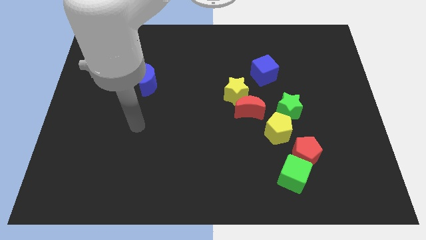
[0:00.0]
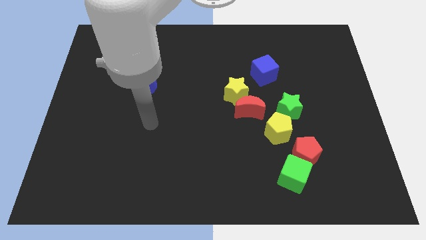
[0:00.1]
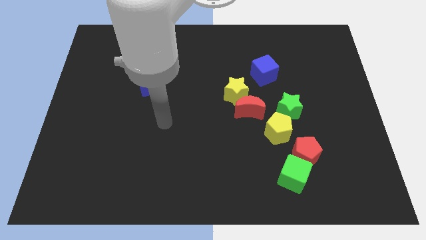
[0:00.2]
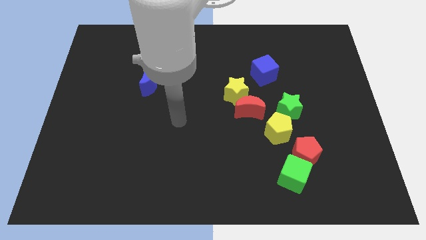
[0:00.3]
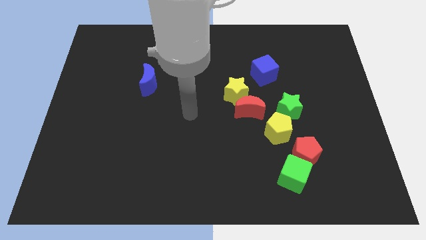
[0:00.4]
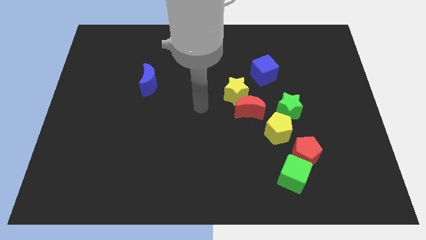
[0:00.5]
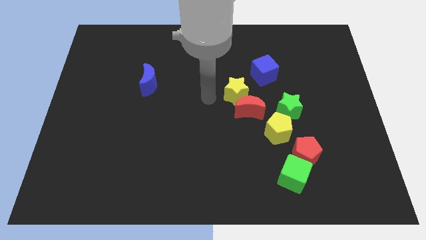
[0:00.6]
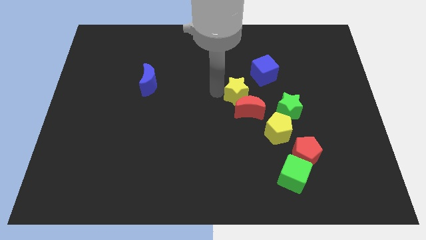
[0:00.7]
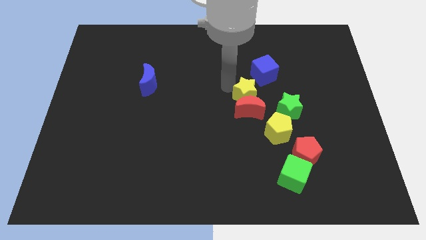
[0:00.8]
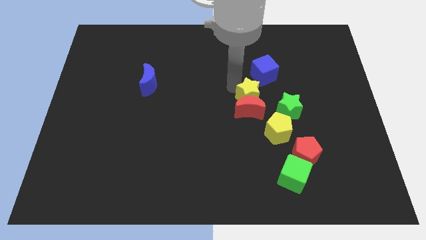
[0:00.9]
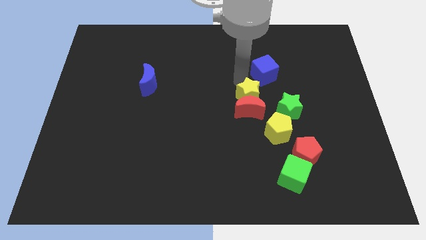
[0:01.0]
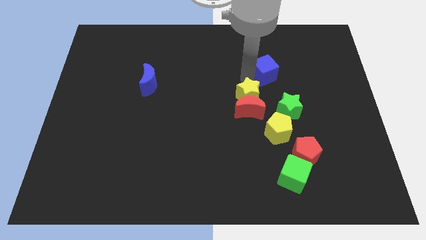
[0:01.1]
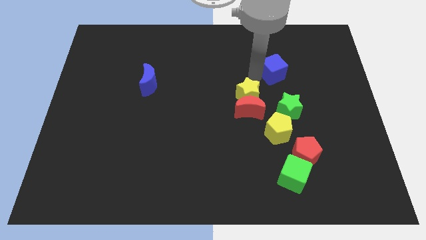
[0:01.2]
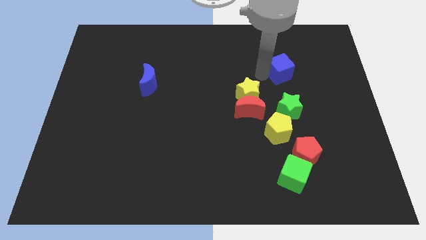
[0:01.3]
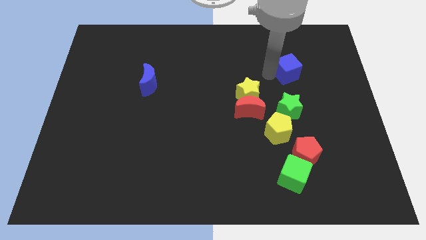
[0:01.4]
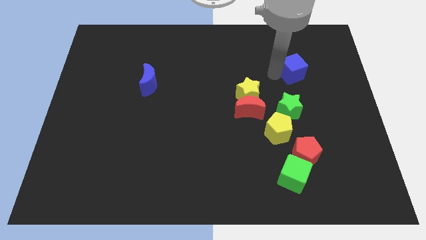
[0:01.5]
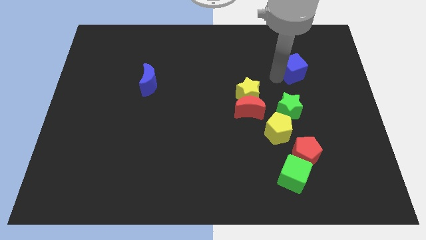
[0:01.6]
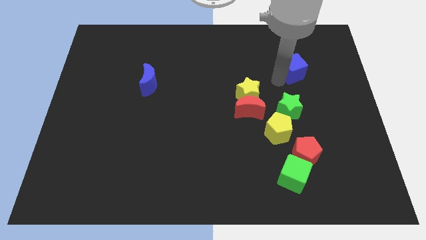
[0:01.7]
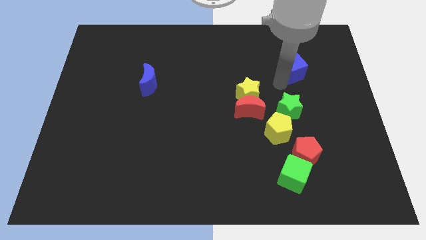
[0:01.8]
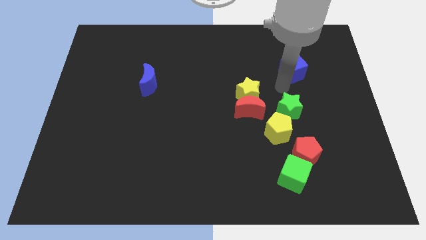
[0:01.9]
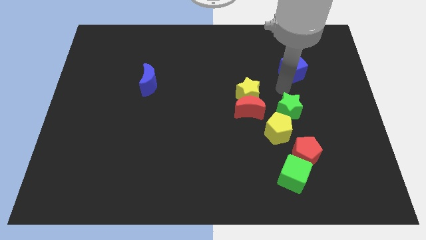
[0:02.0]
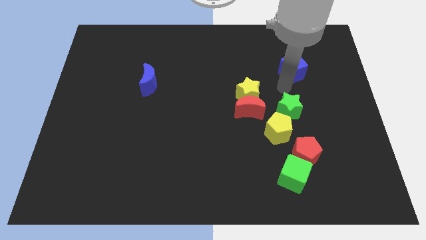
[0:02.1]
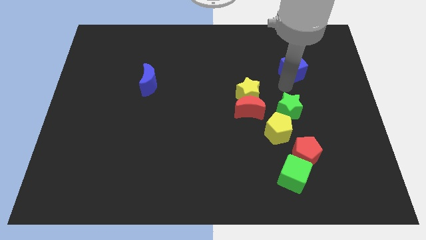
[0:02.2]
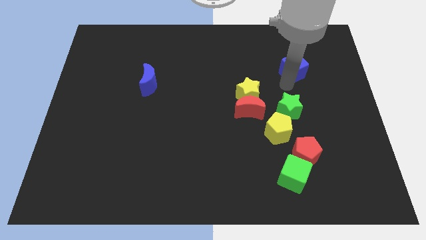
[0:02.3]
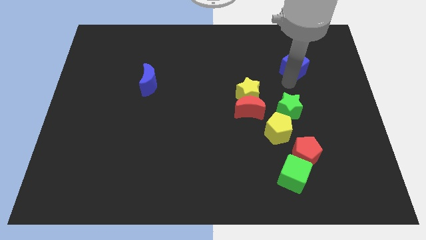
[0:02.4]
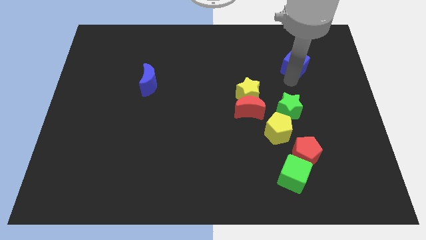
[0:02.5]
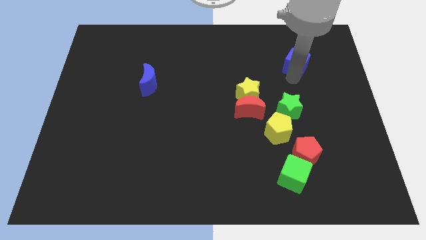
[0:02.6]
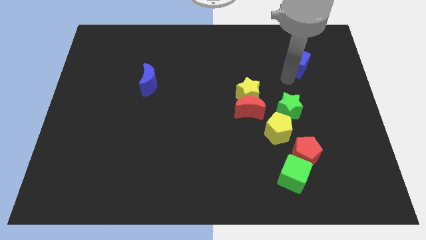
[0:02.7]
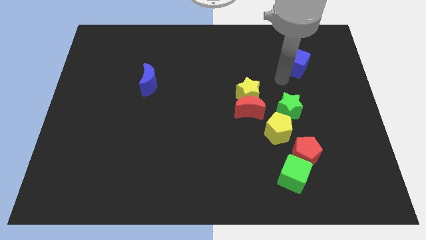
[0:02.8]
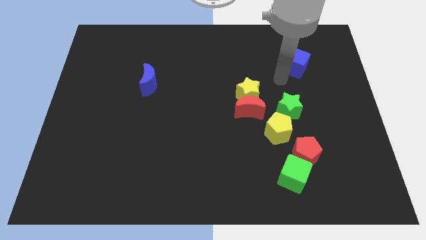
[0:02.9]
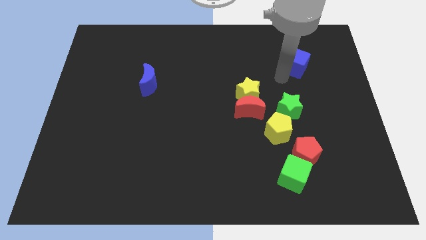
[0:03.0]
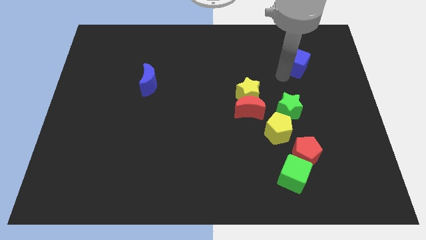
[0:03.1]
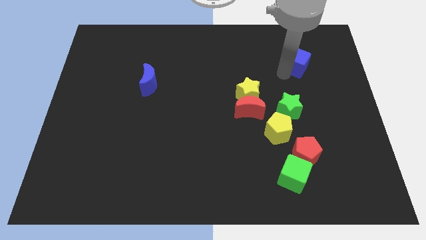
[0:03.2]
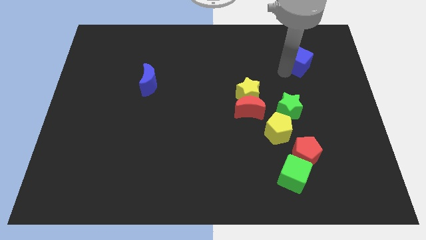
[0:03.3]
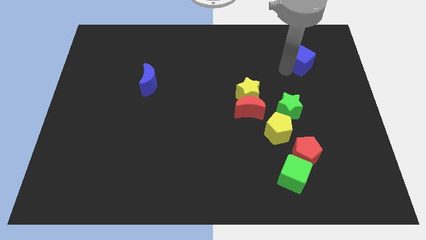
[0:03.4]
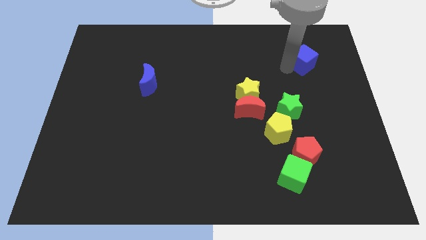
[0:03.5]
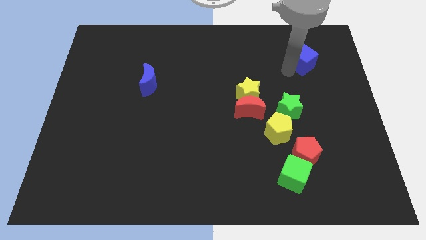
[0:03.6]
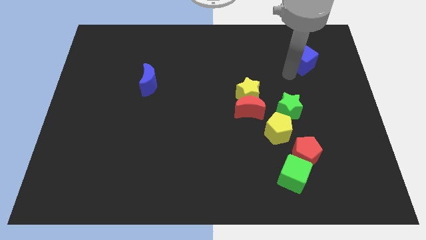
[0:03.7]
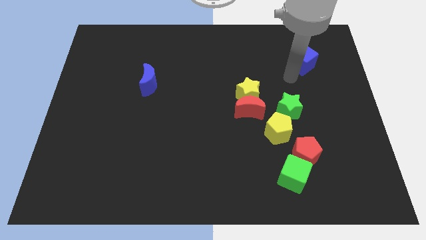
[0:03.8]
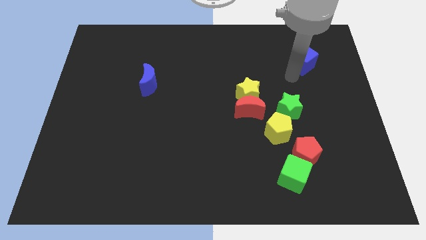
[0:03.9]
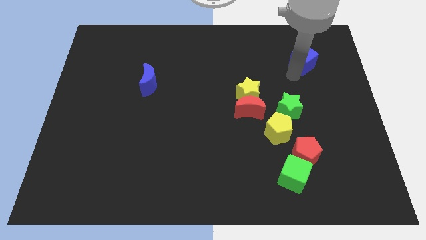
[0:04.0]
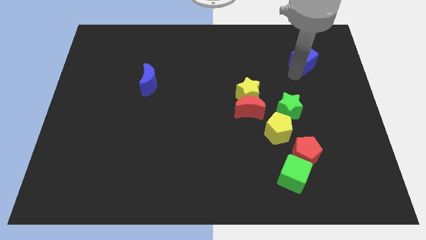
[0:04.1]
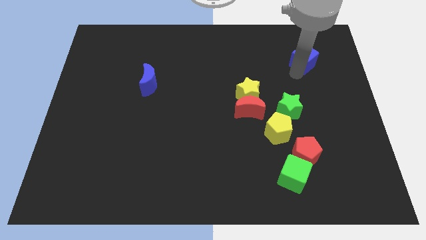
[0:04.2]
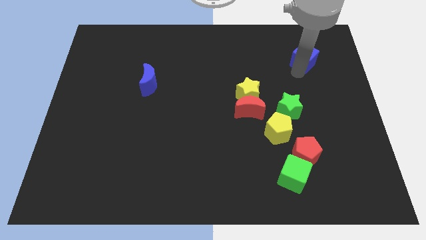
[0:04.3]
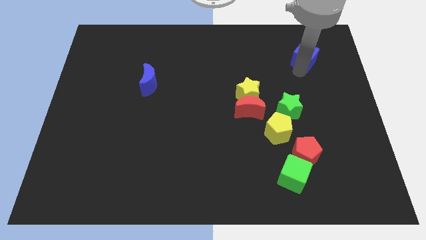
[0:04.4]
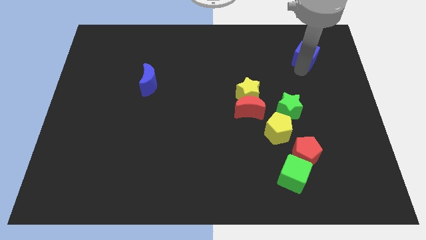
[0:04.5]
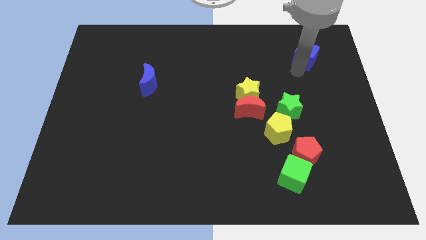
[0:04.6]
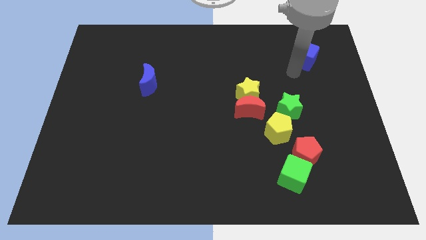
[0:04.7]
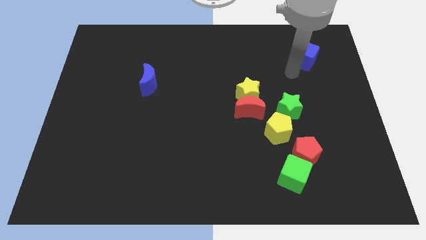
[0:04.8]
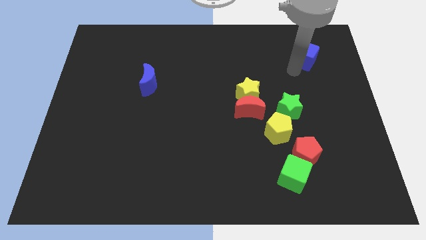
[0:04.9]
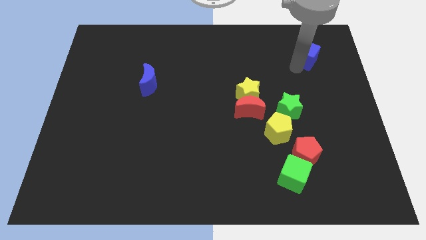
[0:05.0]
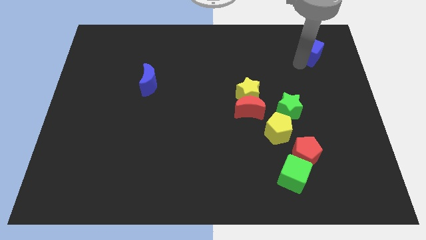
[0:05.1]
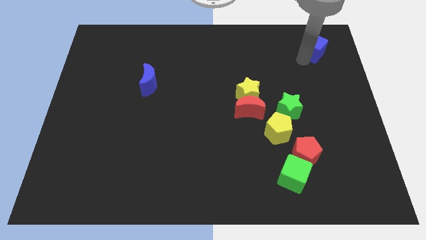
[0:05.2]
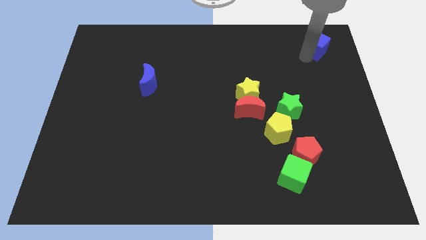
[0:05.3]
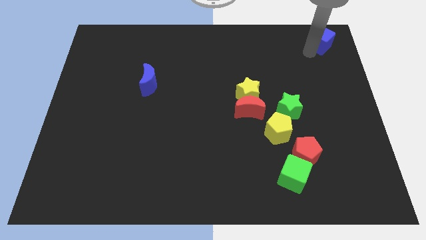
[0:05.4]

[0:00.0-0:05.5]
put the blue cube to the upper right corner

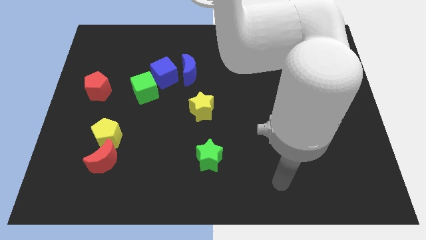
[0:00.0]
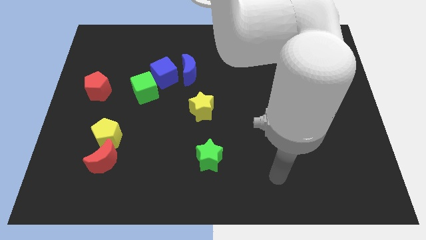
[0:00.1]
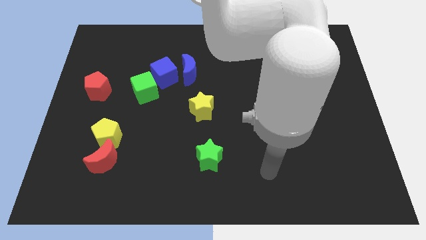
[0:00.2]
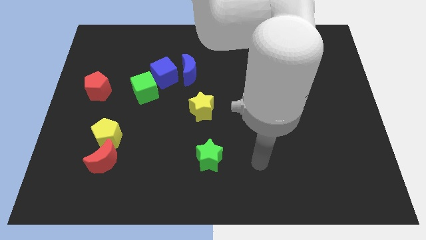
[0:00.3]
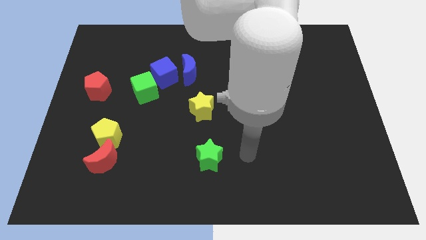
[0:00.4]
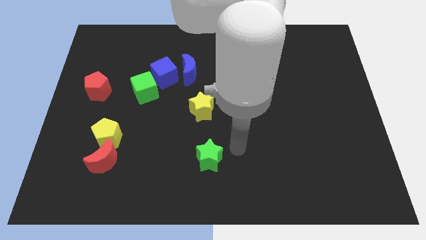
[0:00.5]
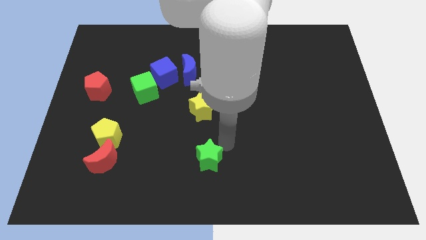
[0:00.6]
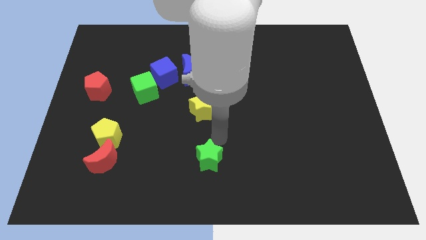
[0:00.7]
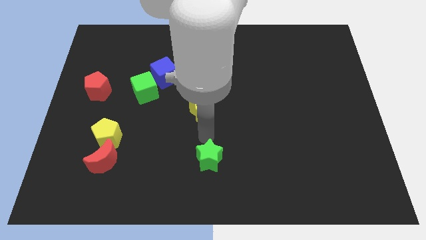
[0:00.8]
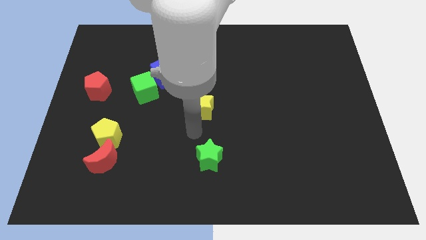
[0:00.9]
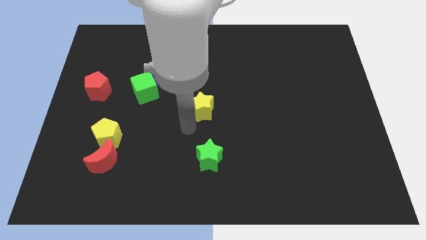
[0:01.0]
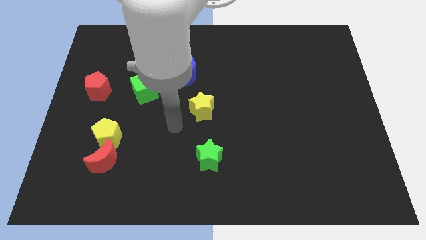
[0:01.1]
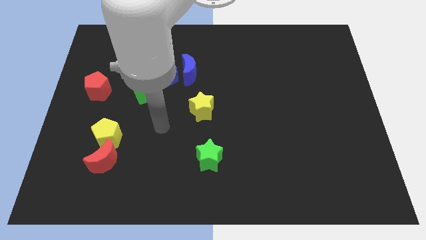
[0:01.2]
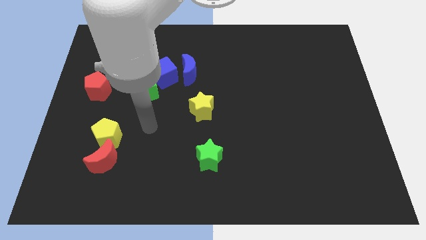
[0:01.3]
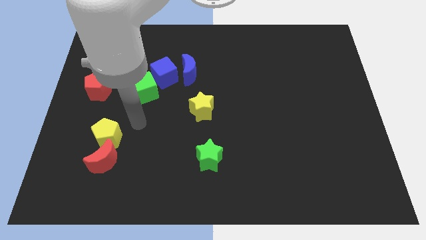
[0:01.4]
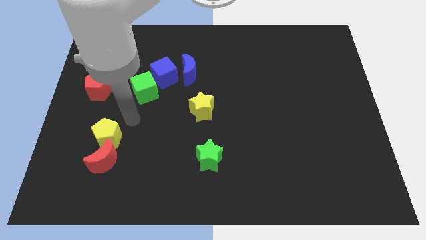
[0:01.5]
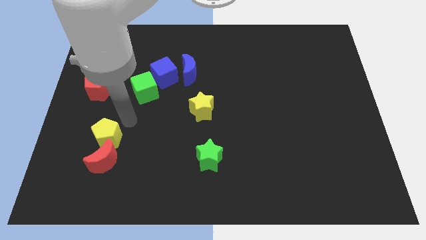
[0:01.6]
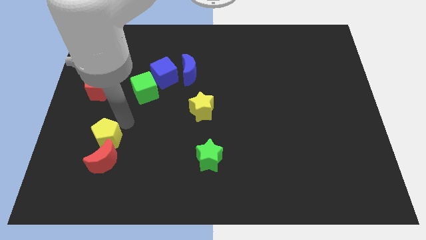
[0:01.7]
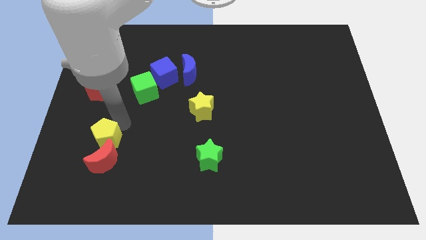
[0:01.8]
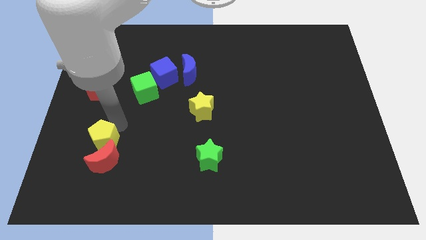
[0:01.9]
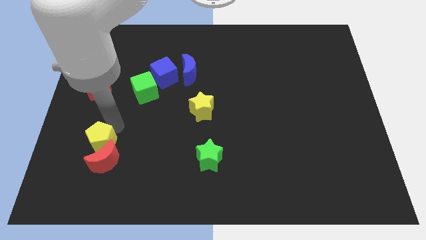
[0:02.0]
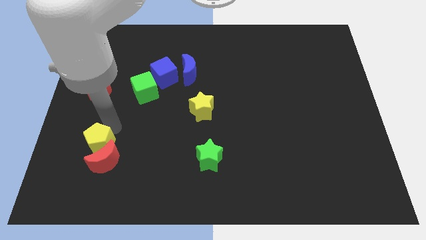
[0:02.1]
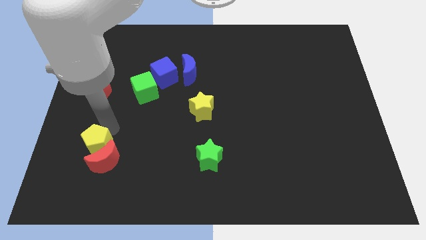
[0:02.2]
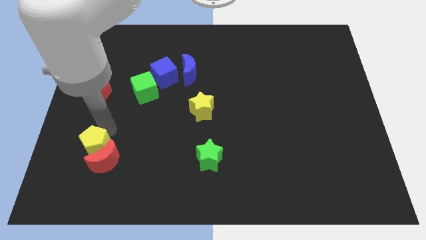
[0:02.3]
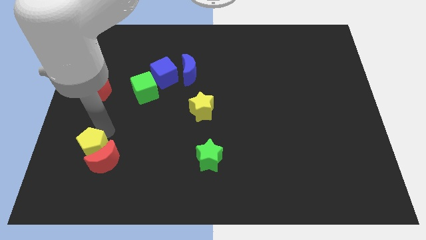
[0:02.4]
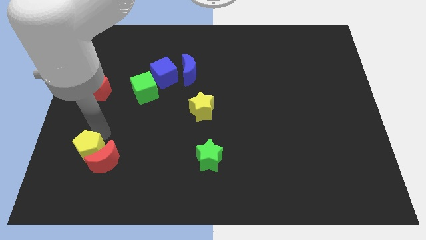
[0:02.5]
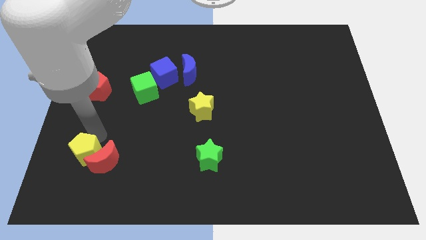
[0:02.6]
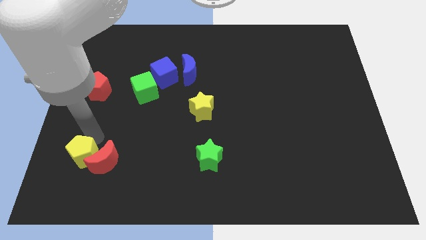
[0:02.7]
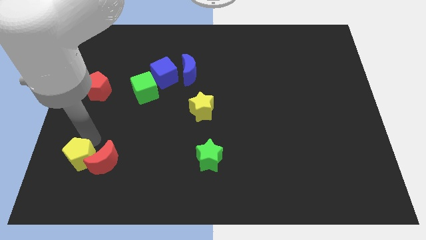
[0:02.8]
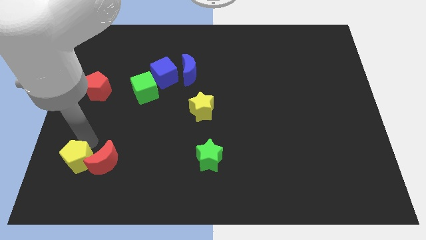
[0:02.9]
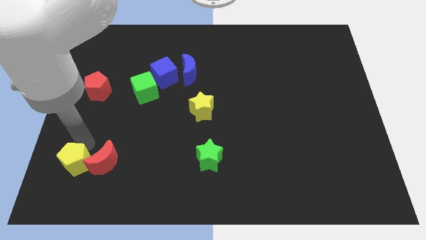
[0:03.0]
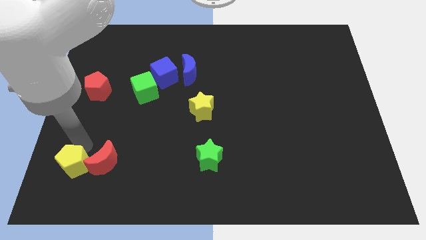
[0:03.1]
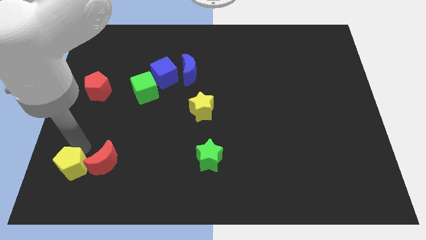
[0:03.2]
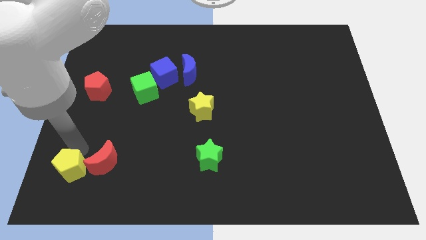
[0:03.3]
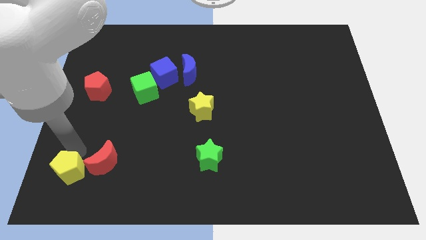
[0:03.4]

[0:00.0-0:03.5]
put the yellow pentagon to the lower left corner
